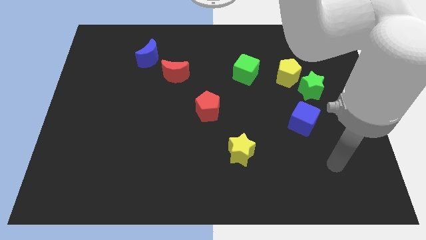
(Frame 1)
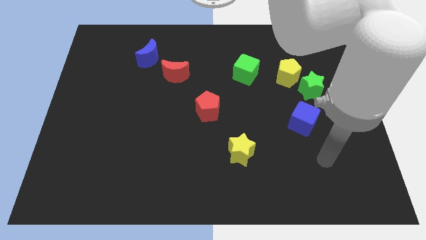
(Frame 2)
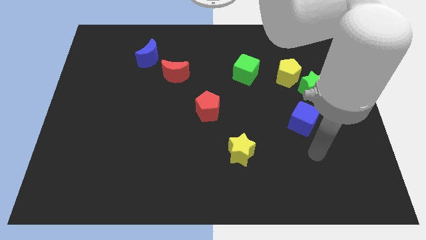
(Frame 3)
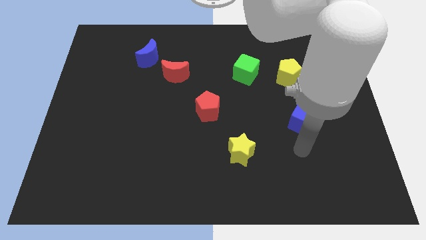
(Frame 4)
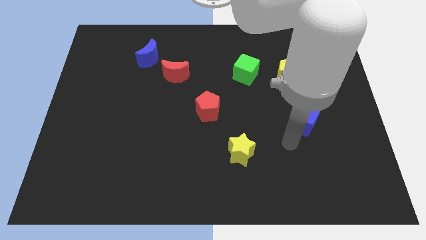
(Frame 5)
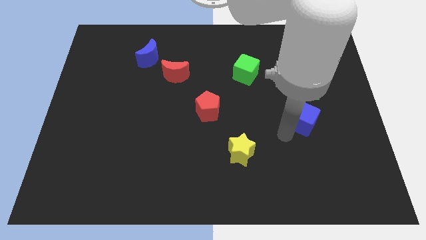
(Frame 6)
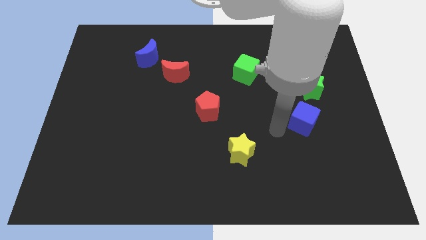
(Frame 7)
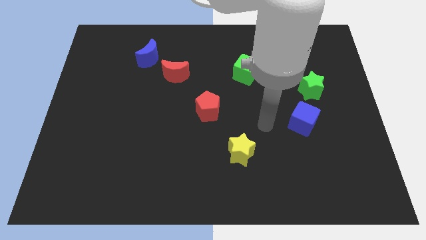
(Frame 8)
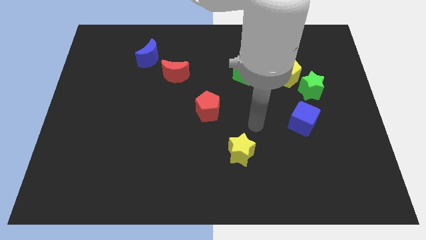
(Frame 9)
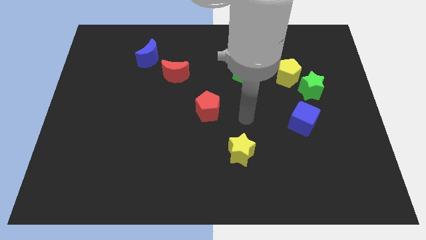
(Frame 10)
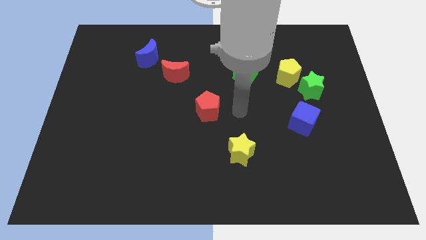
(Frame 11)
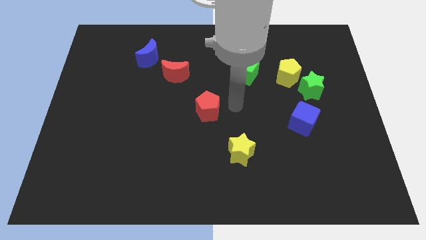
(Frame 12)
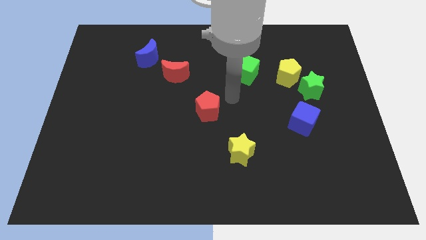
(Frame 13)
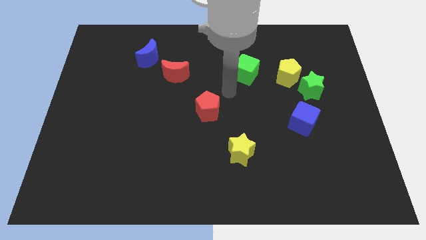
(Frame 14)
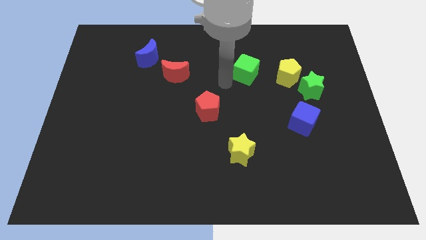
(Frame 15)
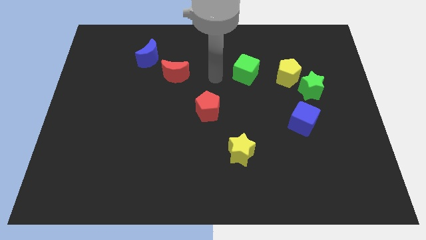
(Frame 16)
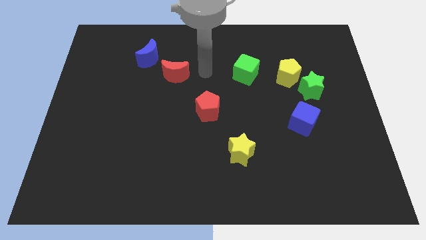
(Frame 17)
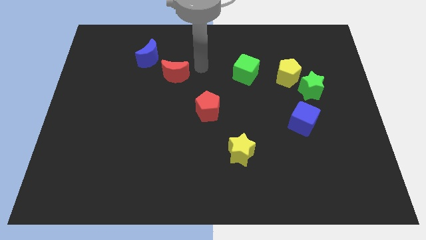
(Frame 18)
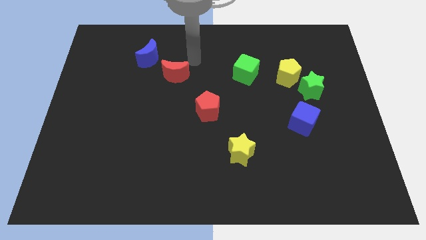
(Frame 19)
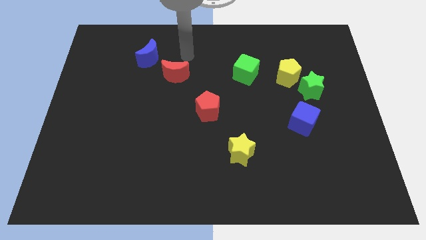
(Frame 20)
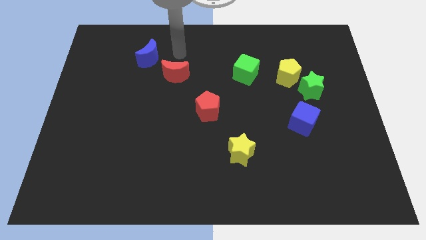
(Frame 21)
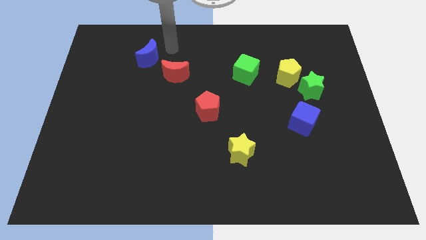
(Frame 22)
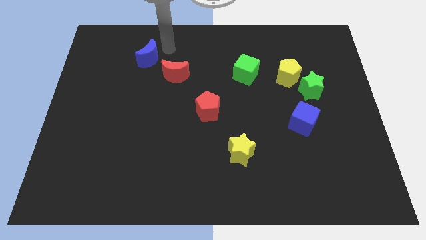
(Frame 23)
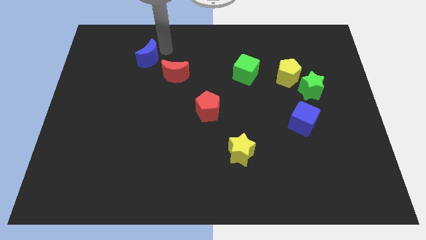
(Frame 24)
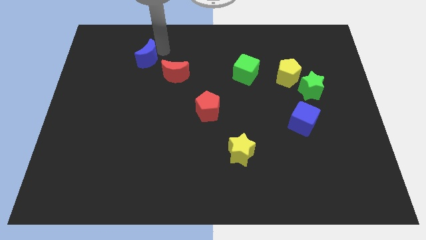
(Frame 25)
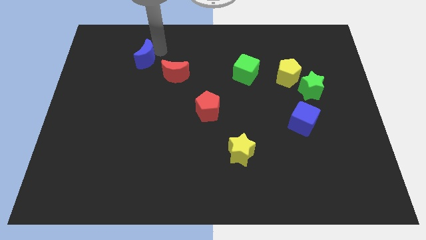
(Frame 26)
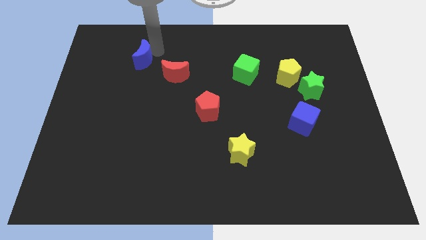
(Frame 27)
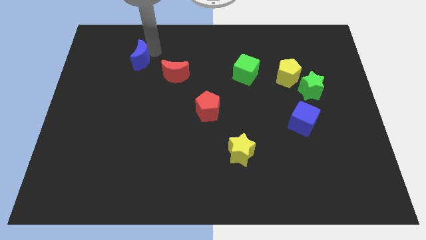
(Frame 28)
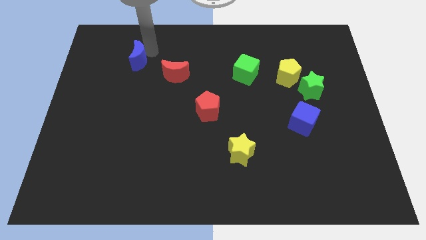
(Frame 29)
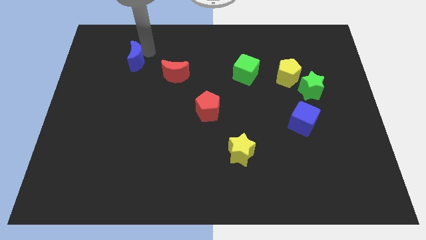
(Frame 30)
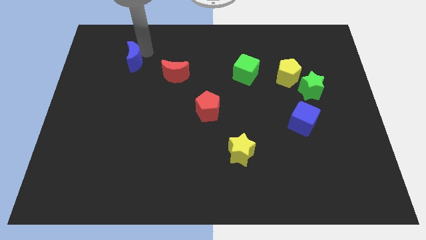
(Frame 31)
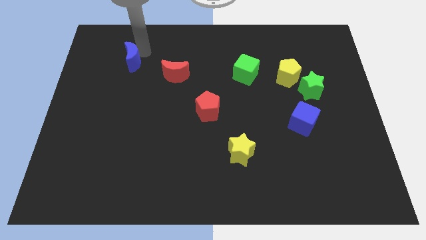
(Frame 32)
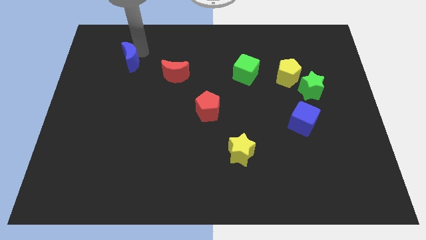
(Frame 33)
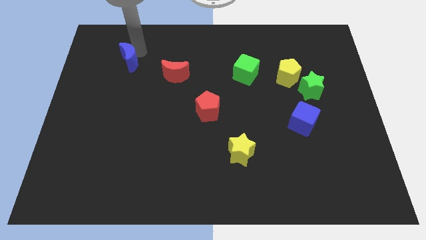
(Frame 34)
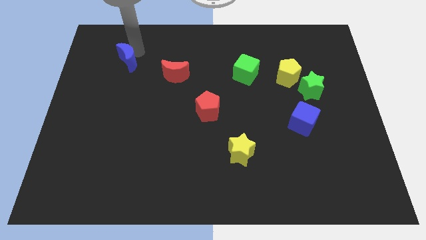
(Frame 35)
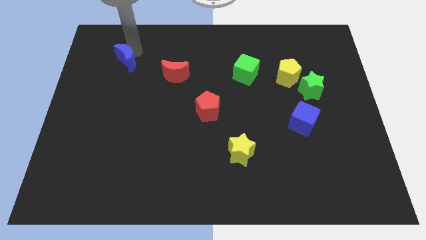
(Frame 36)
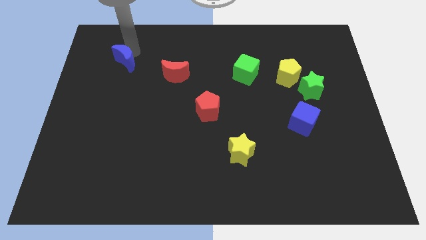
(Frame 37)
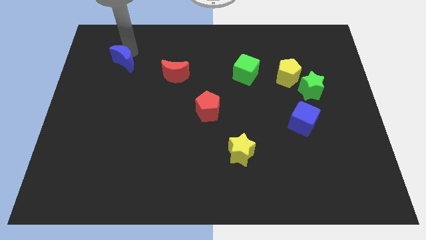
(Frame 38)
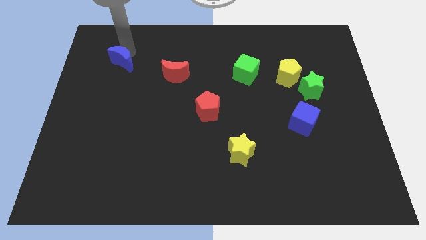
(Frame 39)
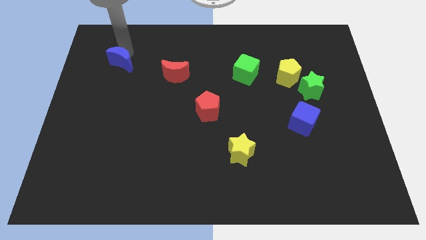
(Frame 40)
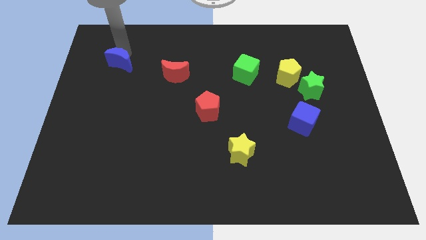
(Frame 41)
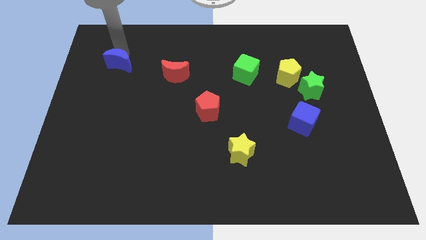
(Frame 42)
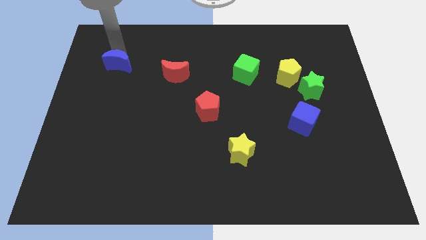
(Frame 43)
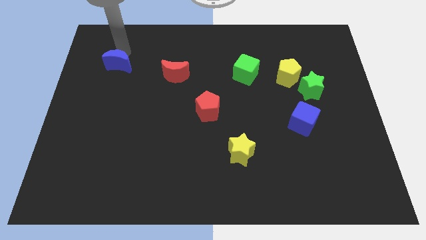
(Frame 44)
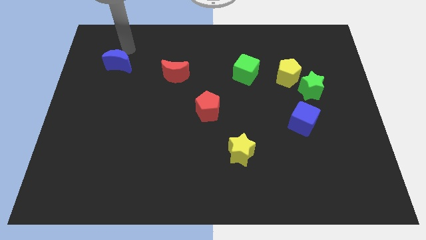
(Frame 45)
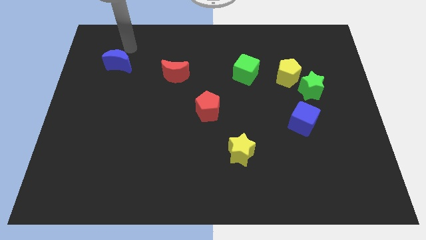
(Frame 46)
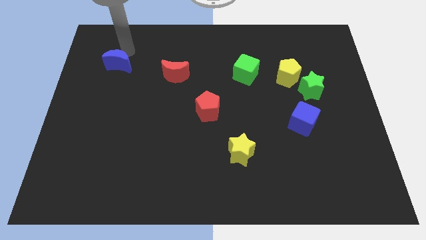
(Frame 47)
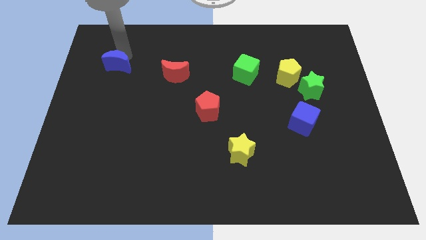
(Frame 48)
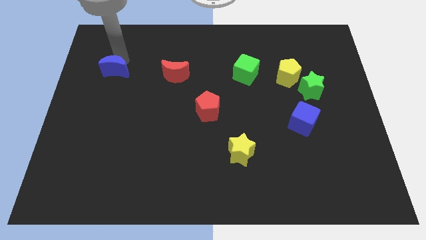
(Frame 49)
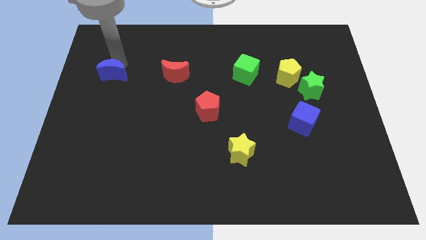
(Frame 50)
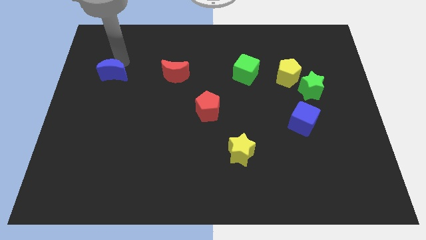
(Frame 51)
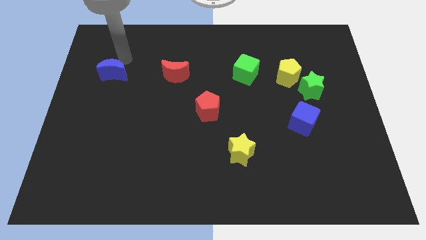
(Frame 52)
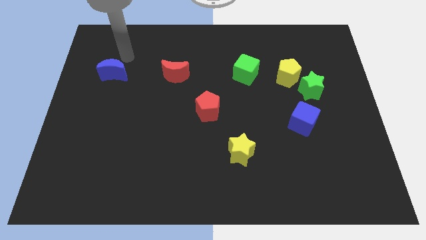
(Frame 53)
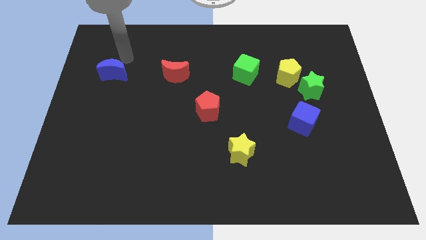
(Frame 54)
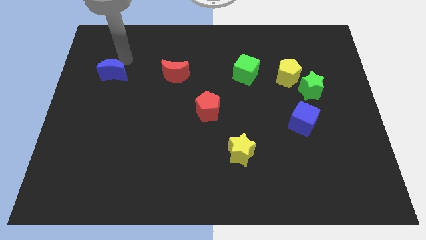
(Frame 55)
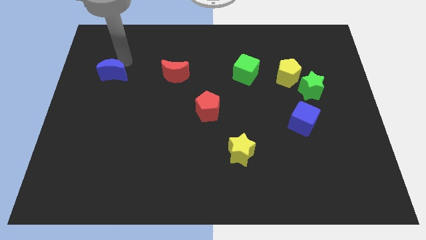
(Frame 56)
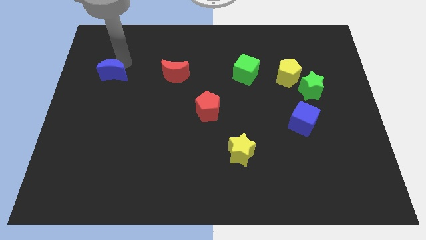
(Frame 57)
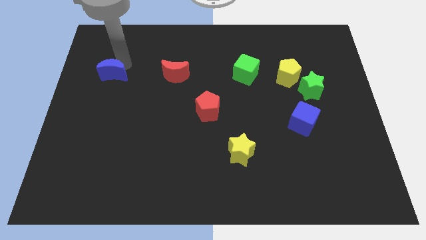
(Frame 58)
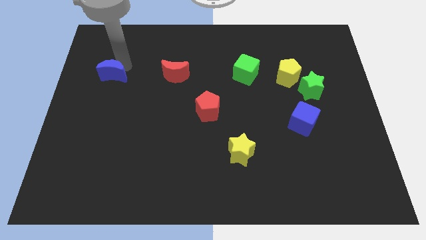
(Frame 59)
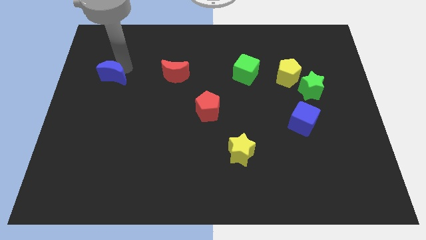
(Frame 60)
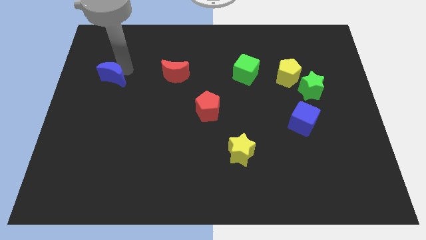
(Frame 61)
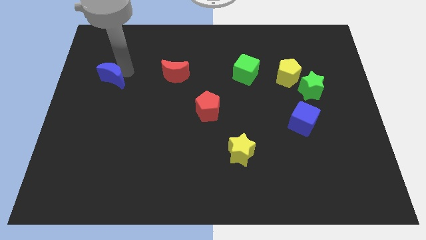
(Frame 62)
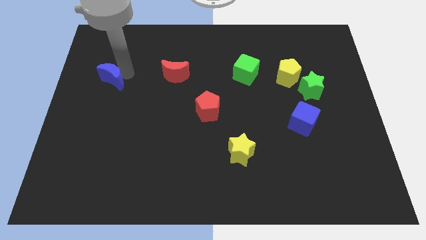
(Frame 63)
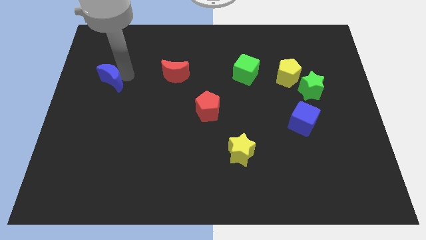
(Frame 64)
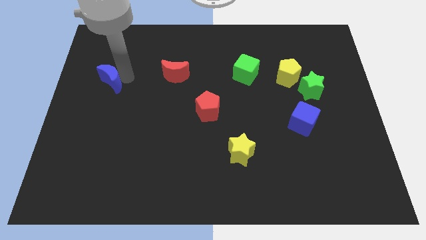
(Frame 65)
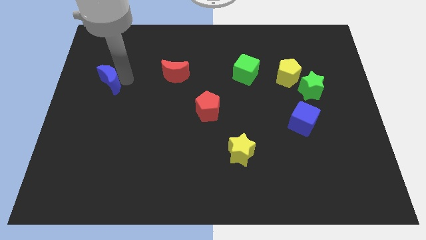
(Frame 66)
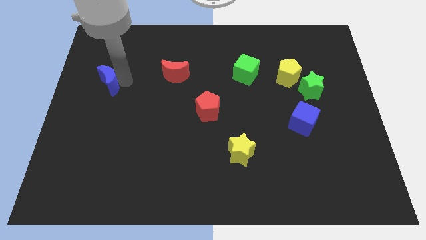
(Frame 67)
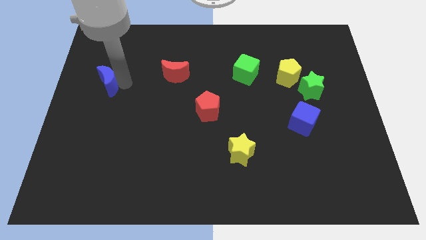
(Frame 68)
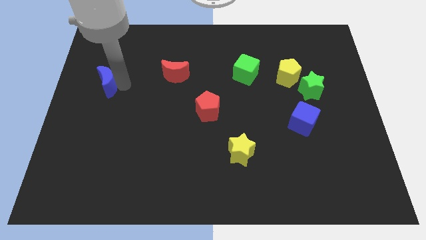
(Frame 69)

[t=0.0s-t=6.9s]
slide the blue moon to the left side of the board

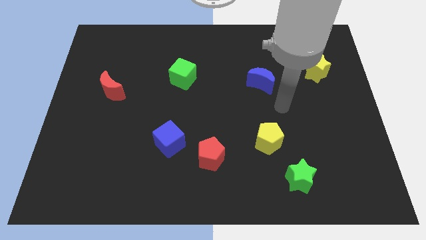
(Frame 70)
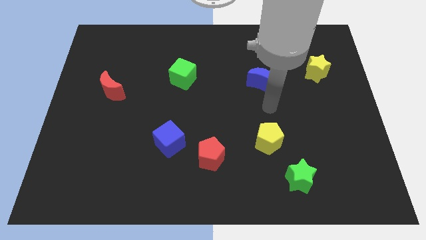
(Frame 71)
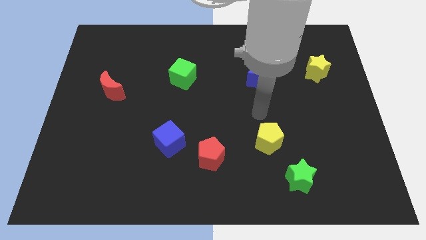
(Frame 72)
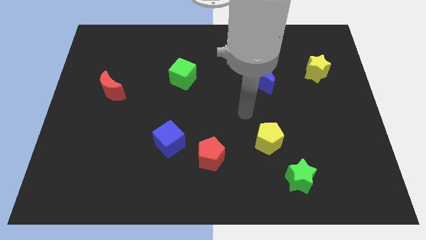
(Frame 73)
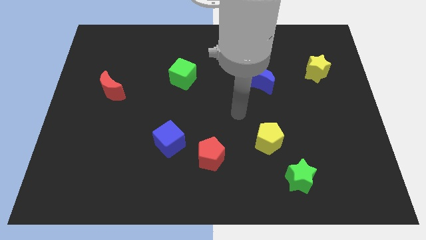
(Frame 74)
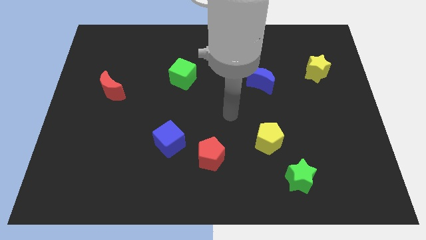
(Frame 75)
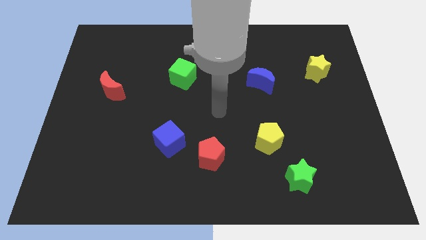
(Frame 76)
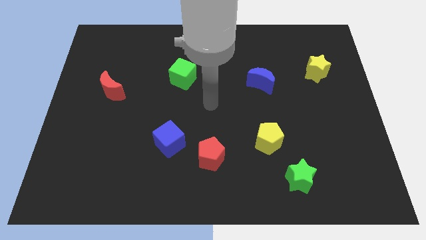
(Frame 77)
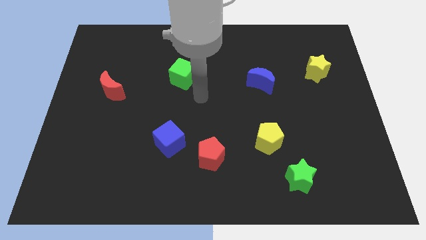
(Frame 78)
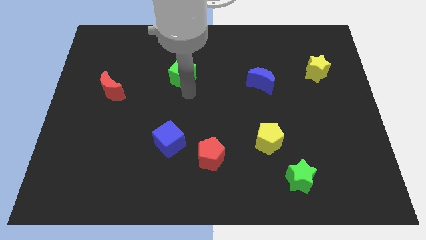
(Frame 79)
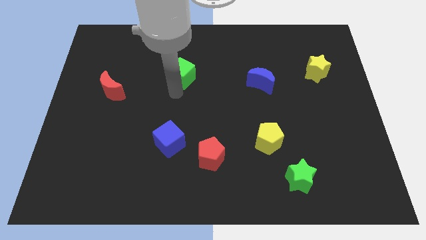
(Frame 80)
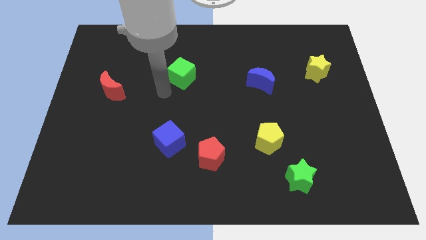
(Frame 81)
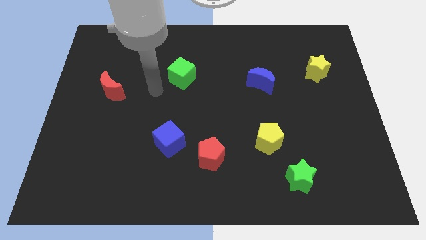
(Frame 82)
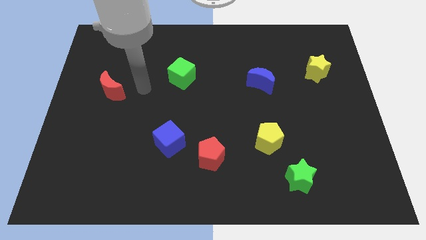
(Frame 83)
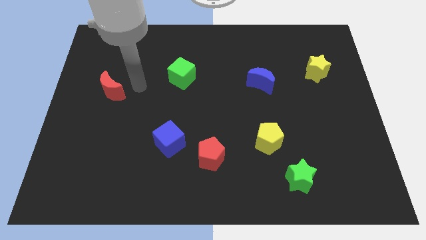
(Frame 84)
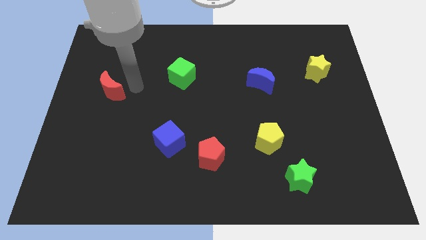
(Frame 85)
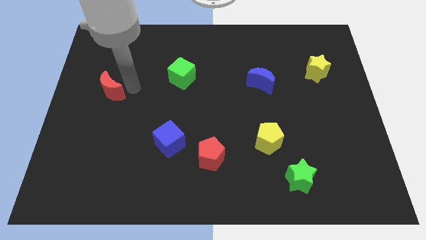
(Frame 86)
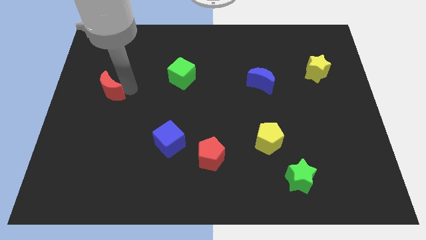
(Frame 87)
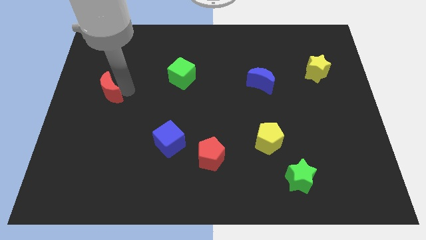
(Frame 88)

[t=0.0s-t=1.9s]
slide the red moon to the left side
